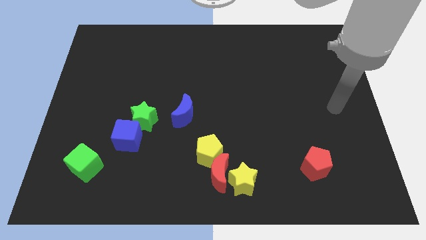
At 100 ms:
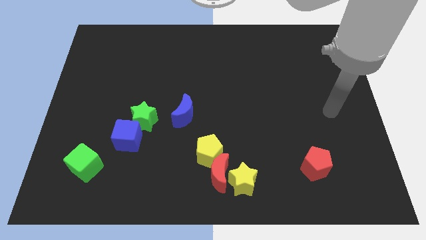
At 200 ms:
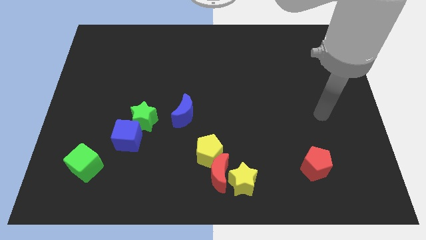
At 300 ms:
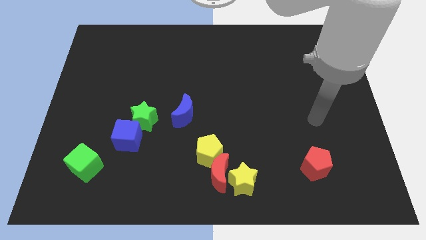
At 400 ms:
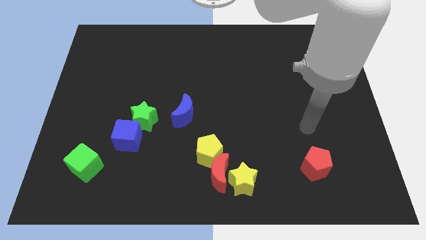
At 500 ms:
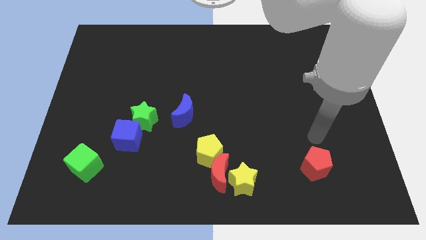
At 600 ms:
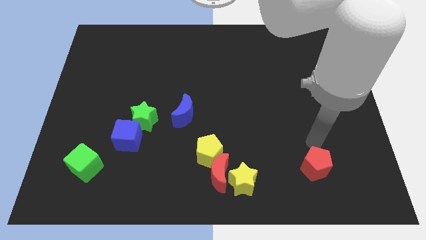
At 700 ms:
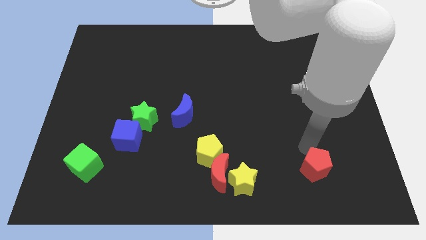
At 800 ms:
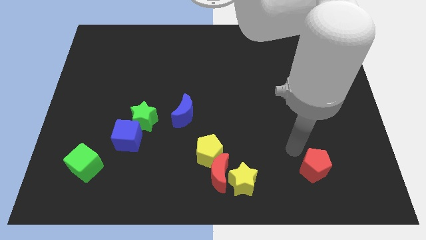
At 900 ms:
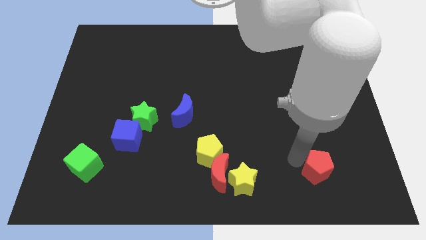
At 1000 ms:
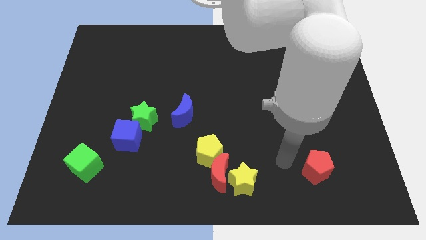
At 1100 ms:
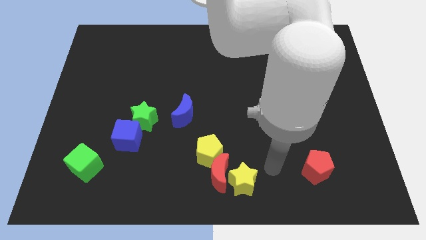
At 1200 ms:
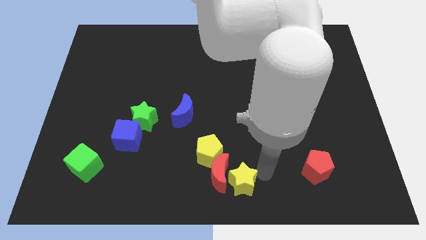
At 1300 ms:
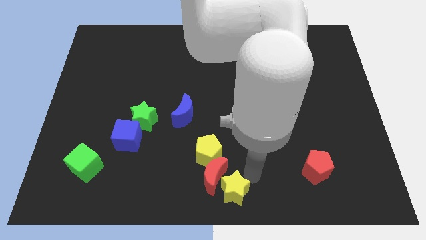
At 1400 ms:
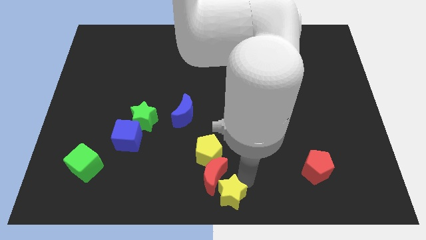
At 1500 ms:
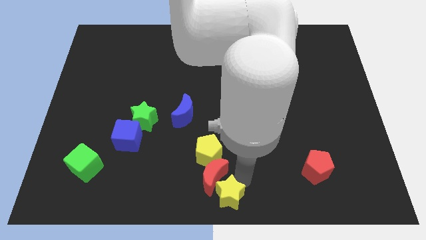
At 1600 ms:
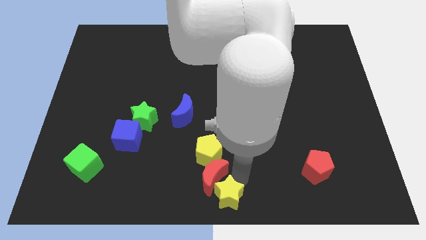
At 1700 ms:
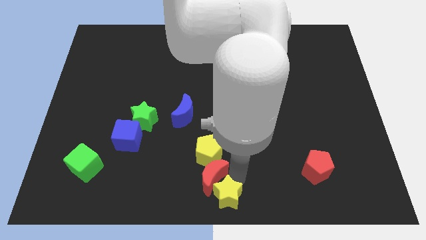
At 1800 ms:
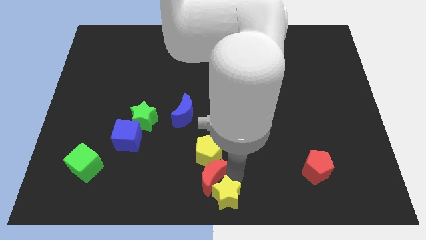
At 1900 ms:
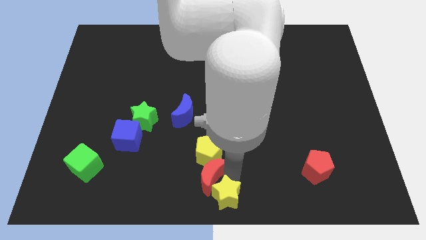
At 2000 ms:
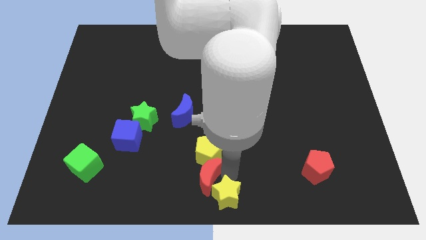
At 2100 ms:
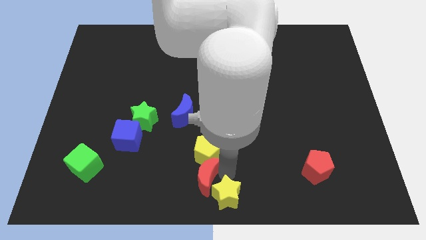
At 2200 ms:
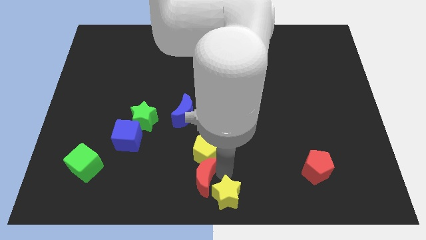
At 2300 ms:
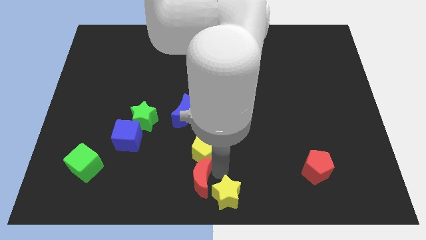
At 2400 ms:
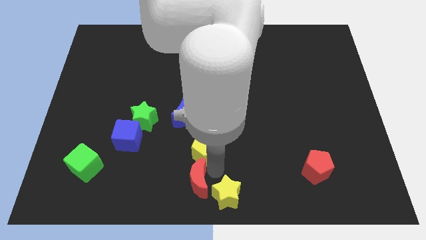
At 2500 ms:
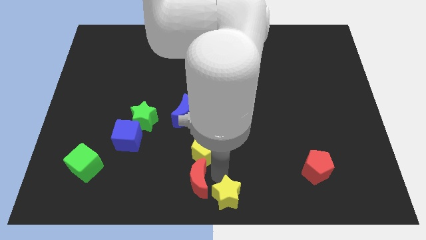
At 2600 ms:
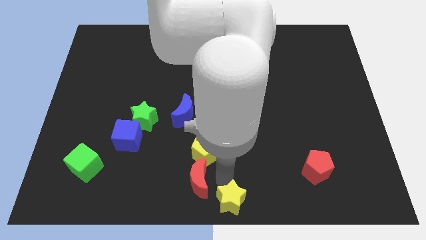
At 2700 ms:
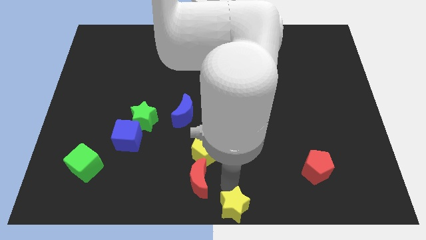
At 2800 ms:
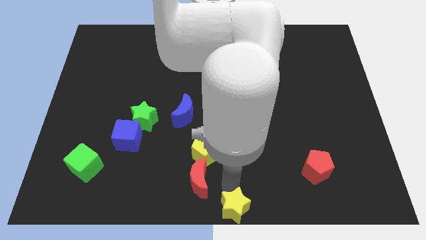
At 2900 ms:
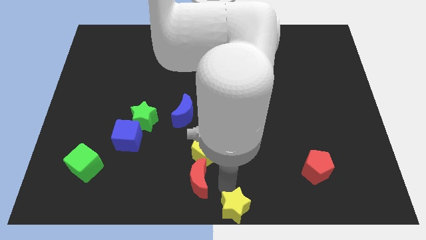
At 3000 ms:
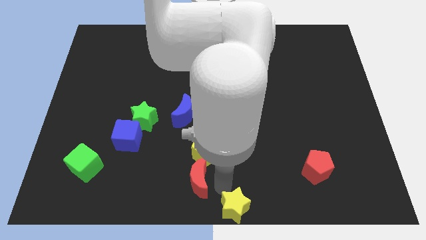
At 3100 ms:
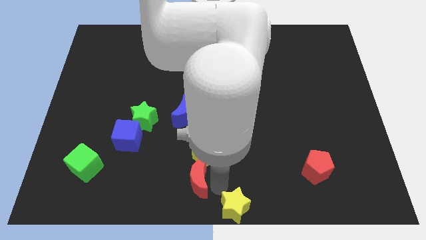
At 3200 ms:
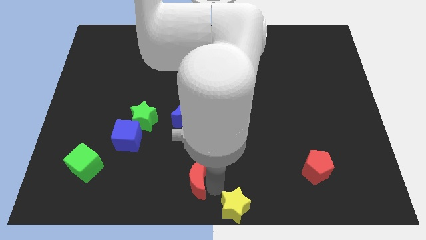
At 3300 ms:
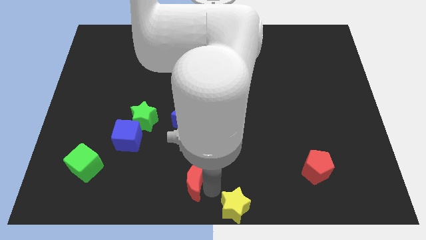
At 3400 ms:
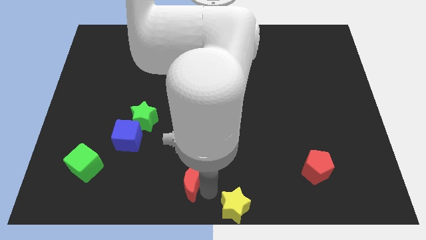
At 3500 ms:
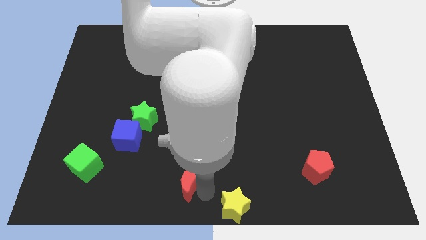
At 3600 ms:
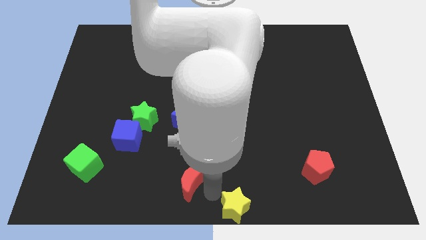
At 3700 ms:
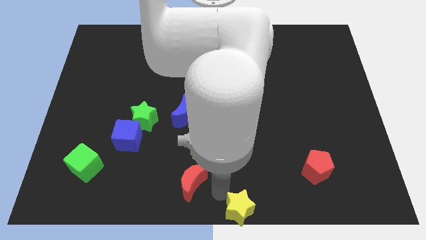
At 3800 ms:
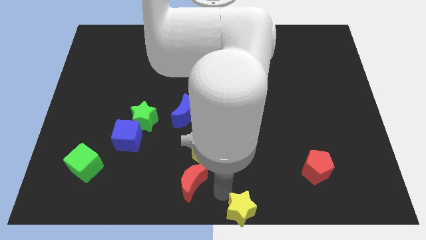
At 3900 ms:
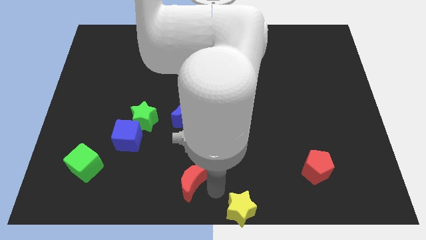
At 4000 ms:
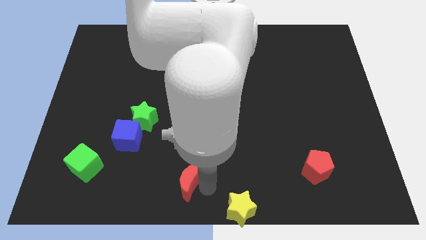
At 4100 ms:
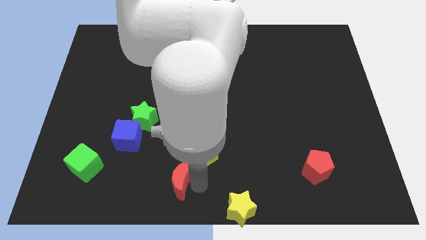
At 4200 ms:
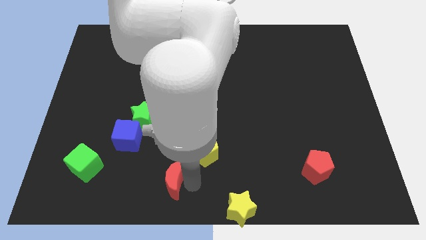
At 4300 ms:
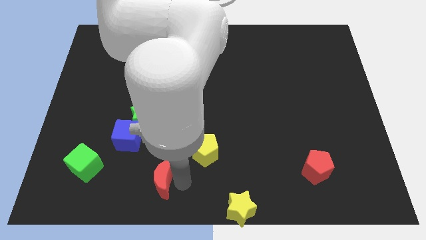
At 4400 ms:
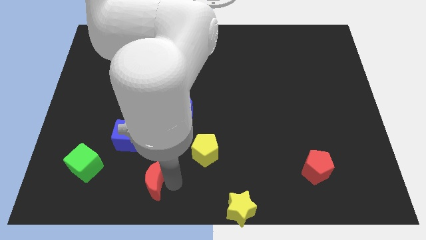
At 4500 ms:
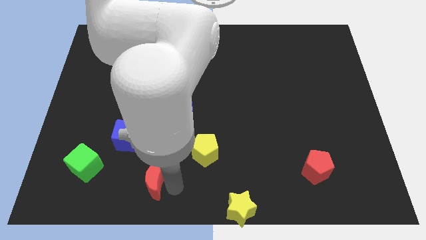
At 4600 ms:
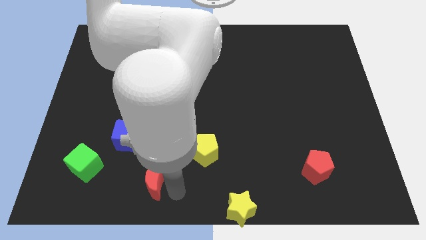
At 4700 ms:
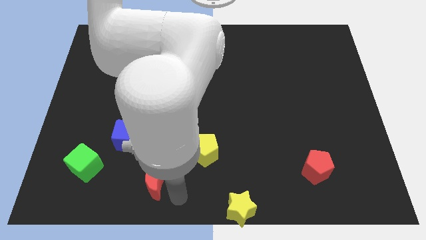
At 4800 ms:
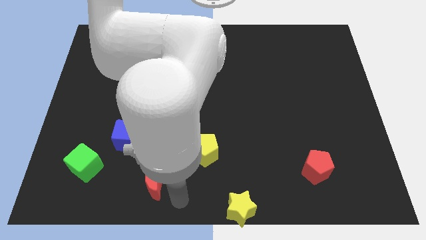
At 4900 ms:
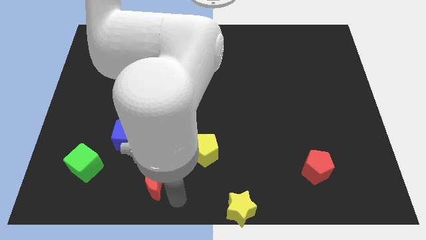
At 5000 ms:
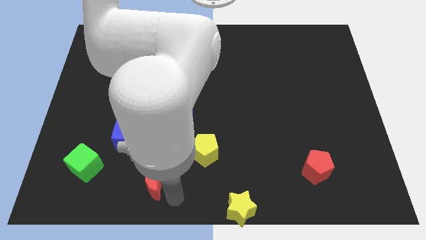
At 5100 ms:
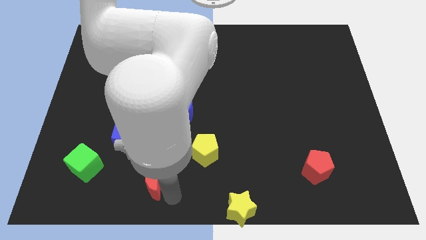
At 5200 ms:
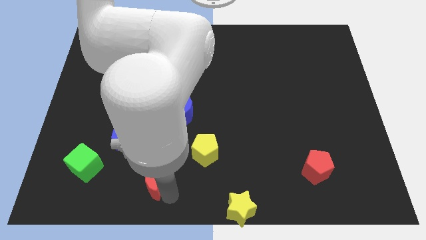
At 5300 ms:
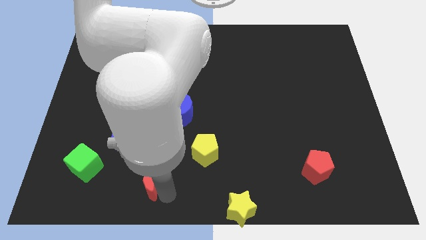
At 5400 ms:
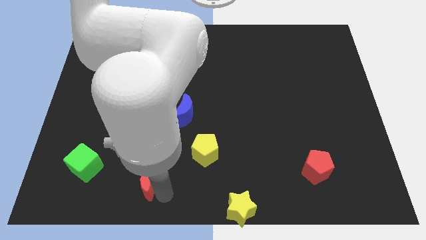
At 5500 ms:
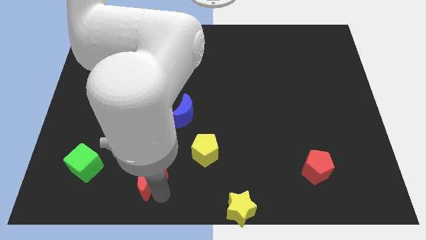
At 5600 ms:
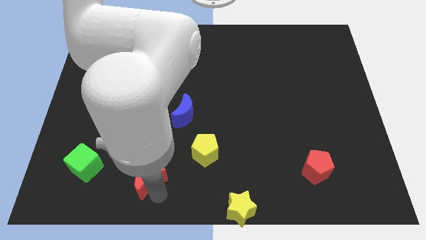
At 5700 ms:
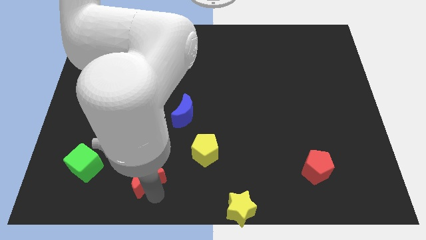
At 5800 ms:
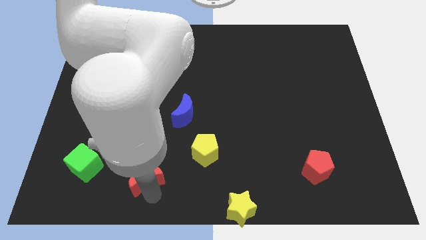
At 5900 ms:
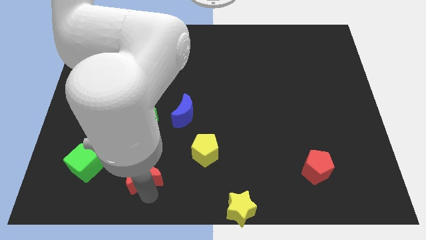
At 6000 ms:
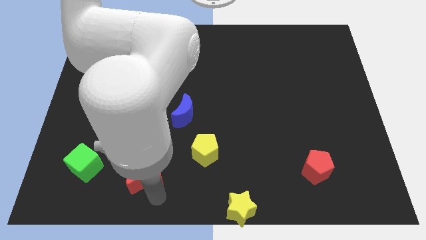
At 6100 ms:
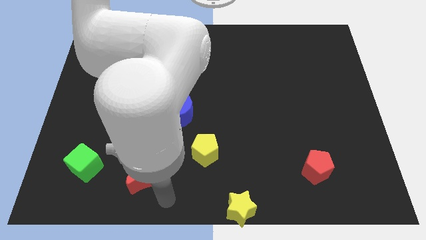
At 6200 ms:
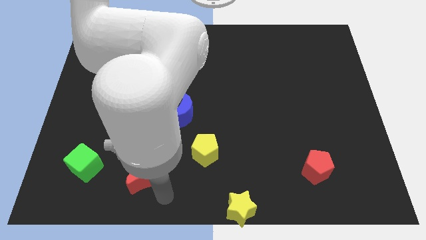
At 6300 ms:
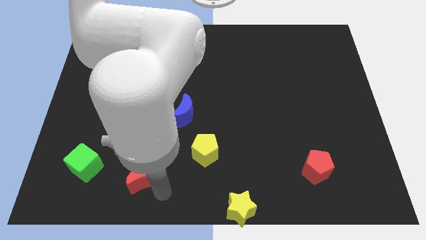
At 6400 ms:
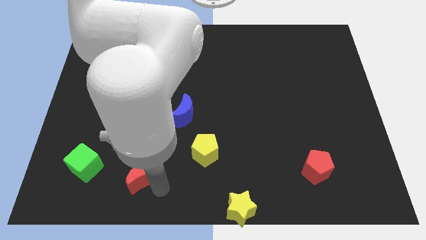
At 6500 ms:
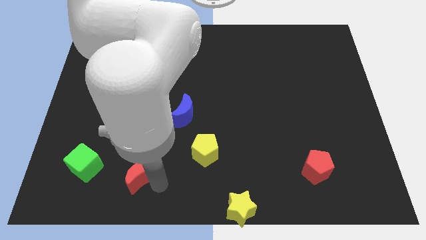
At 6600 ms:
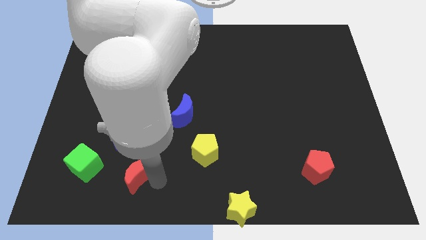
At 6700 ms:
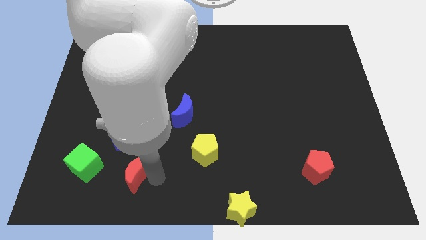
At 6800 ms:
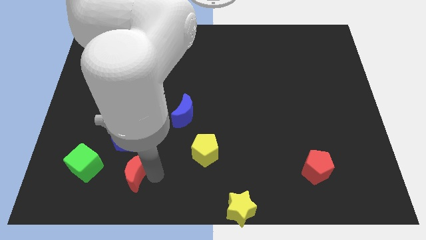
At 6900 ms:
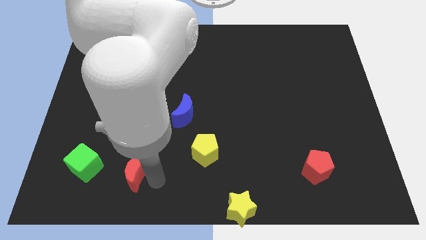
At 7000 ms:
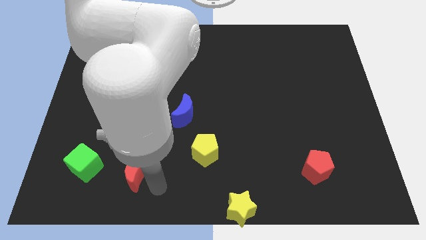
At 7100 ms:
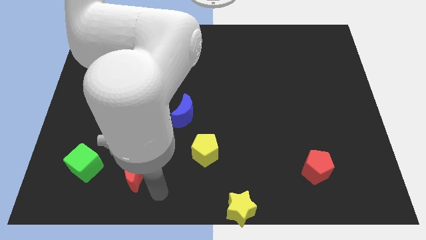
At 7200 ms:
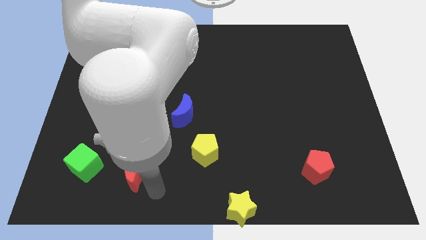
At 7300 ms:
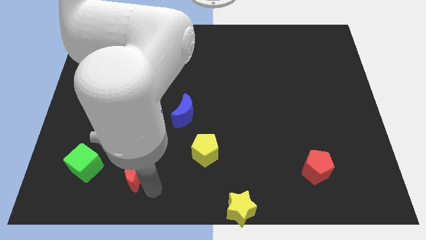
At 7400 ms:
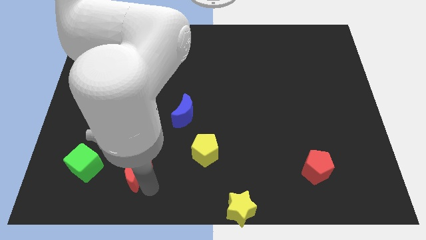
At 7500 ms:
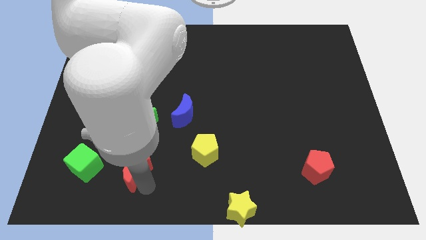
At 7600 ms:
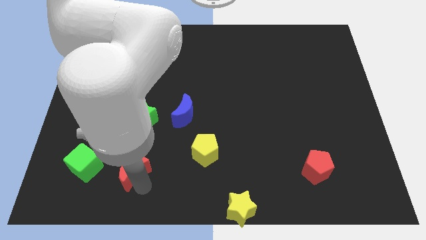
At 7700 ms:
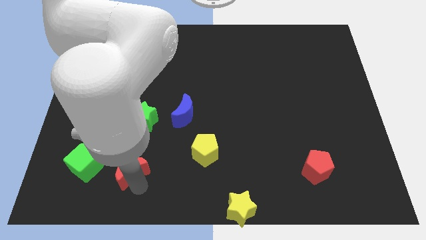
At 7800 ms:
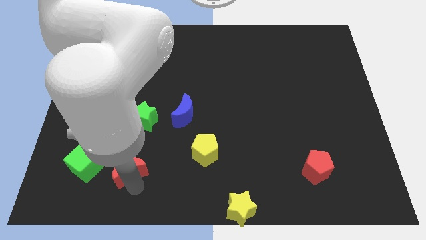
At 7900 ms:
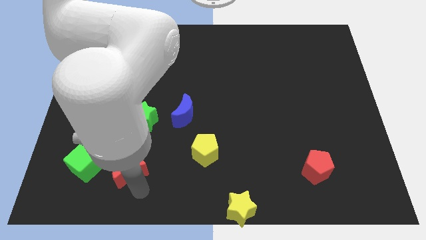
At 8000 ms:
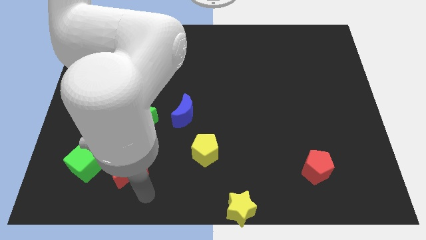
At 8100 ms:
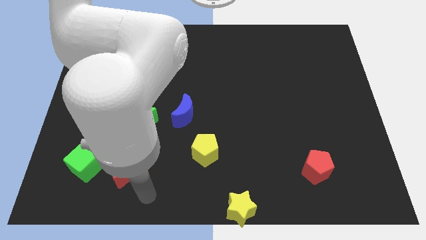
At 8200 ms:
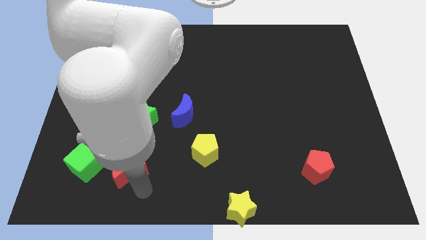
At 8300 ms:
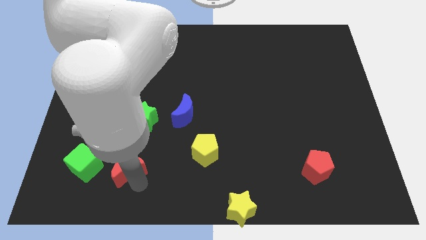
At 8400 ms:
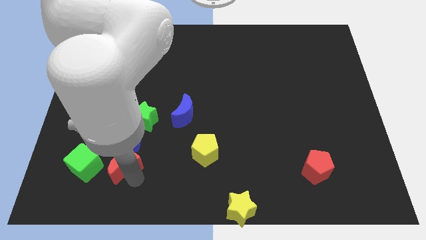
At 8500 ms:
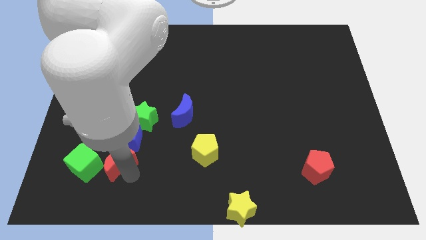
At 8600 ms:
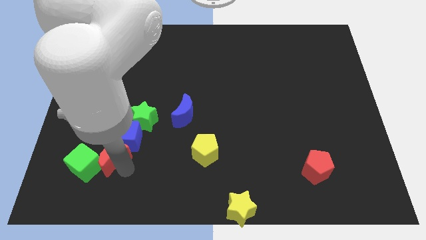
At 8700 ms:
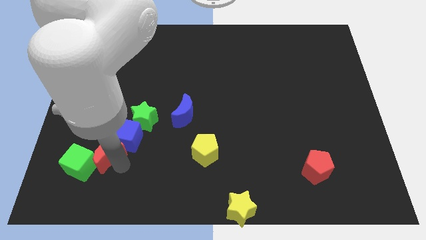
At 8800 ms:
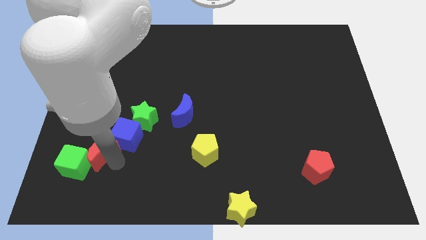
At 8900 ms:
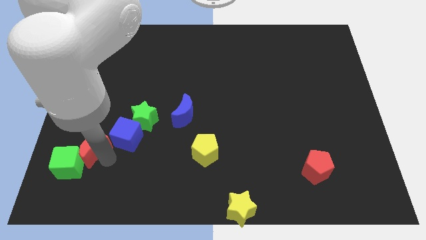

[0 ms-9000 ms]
slide the red moon to the top side of the green cube
